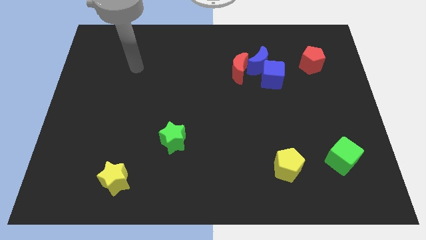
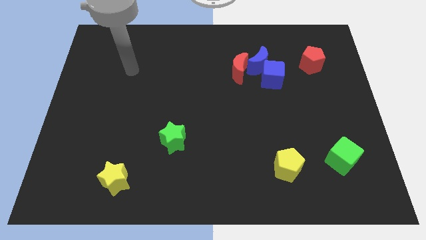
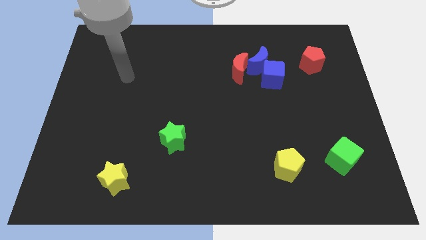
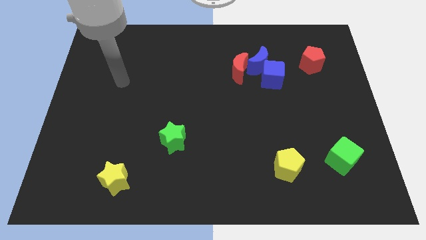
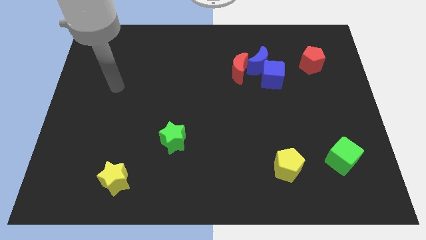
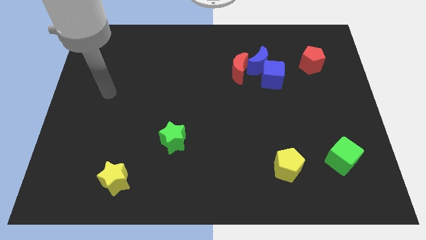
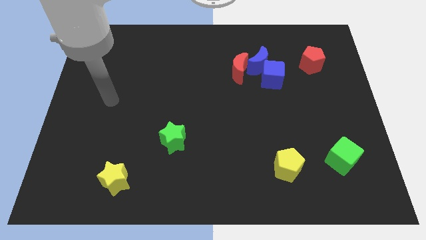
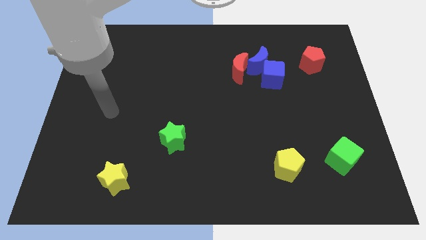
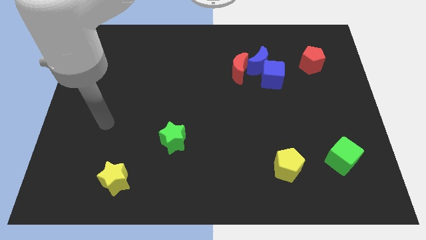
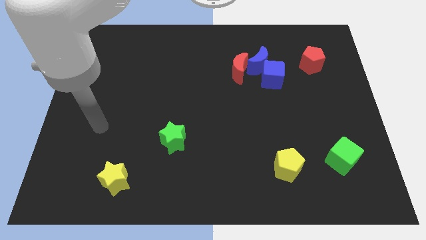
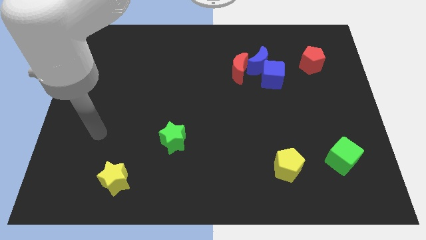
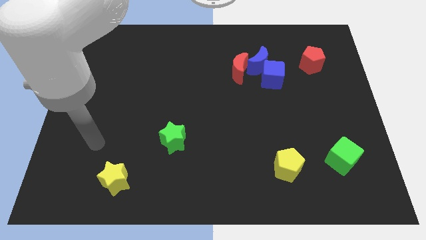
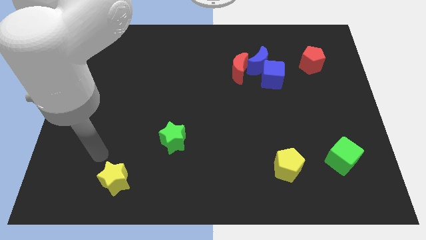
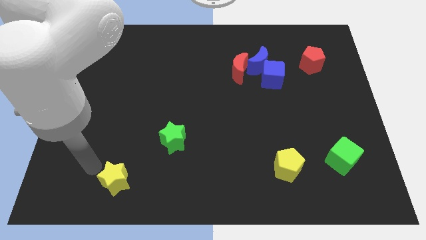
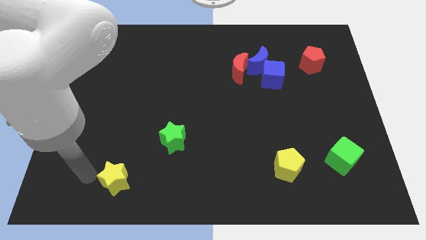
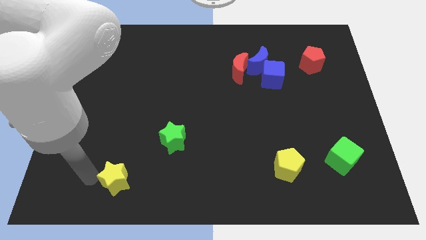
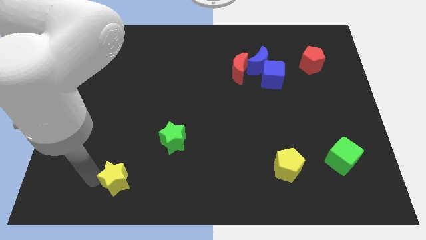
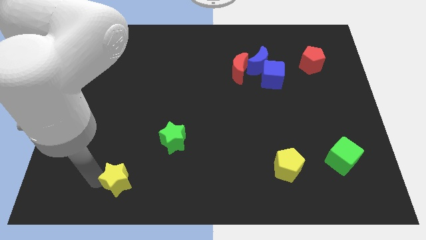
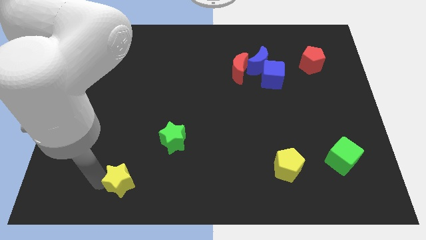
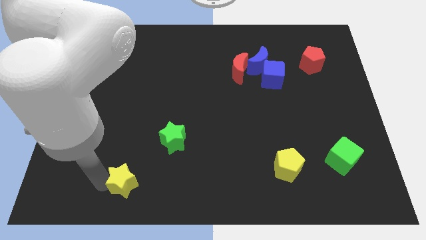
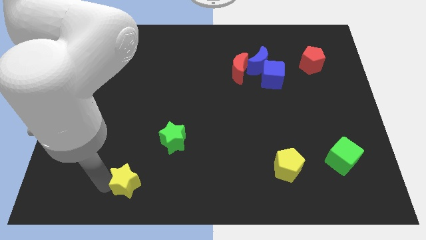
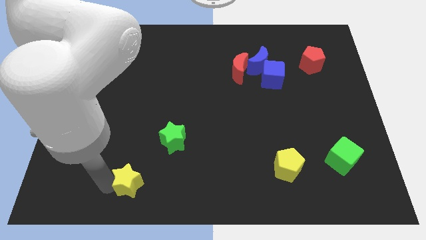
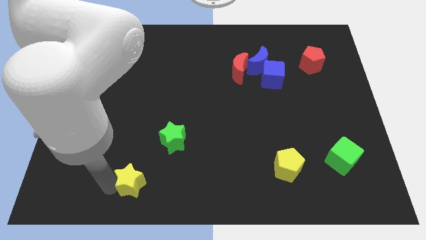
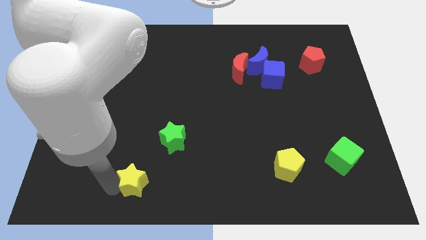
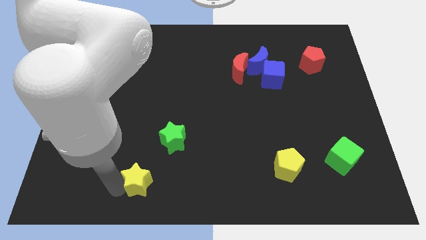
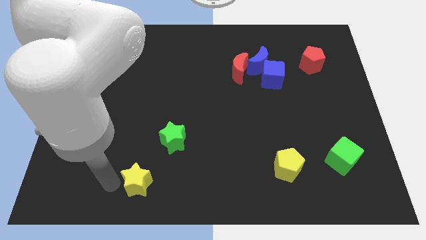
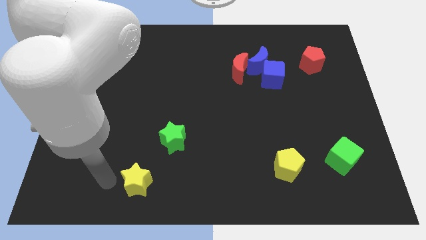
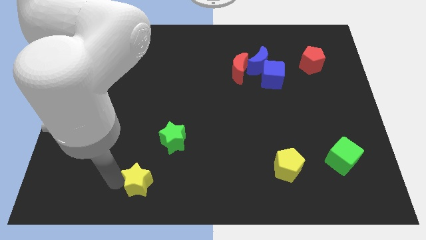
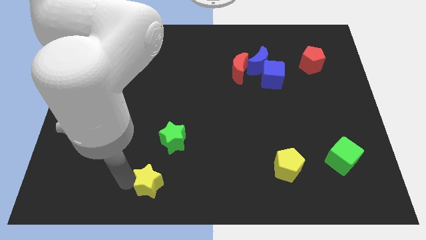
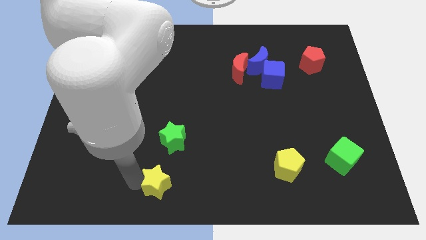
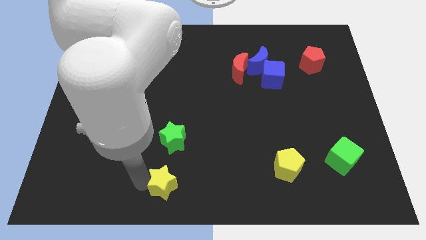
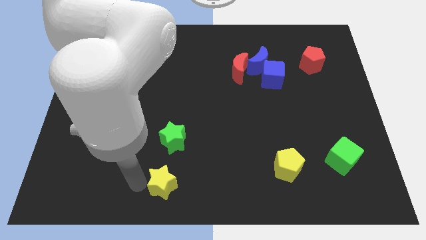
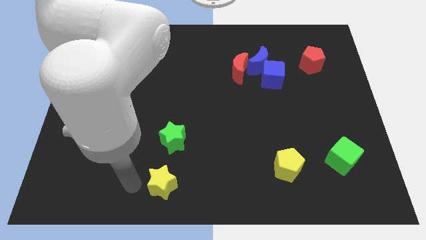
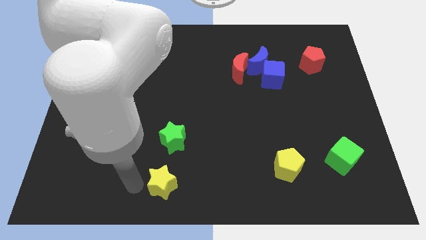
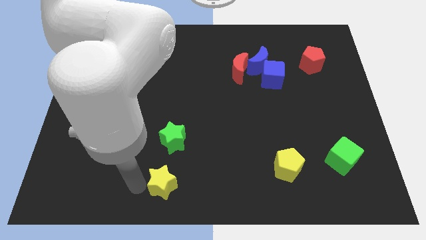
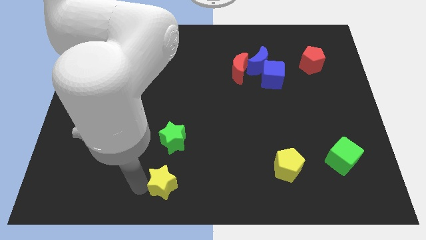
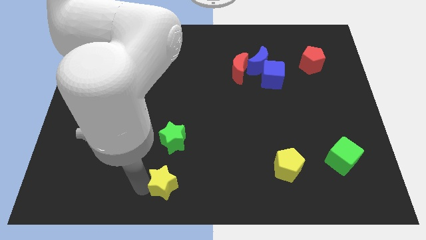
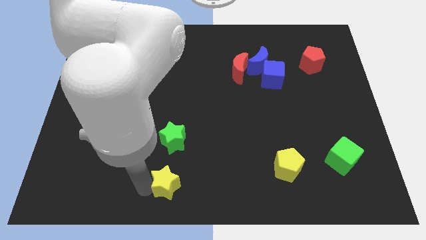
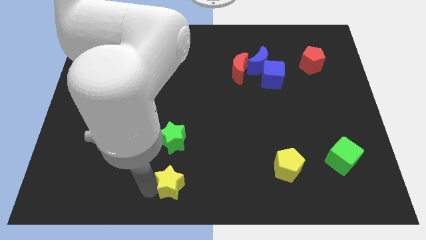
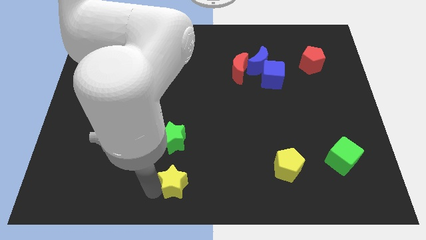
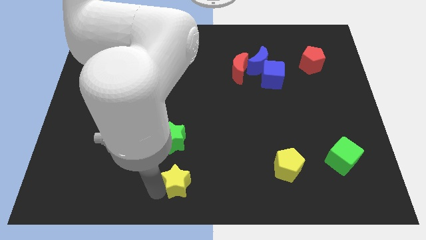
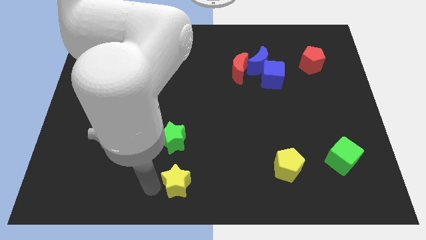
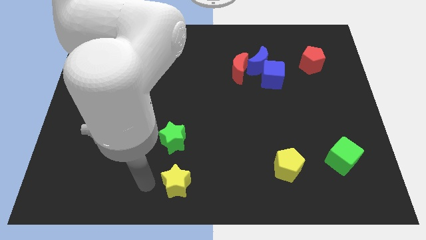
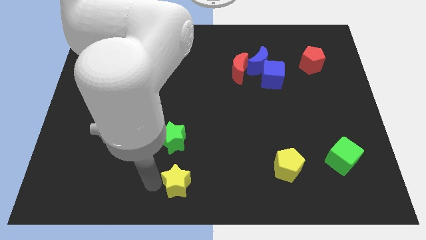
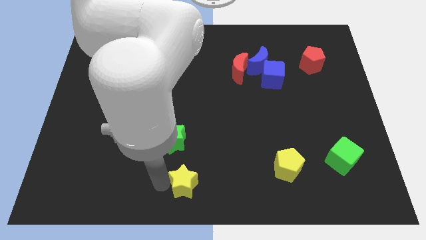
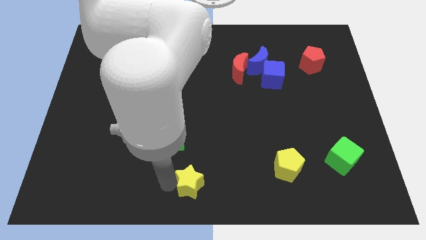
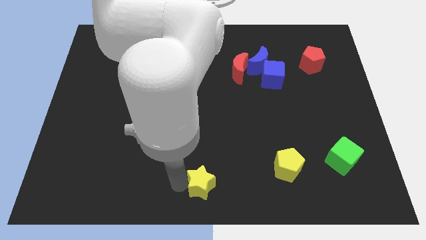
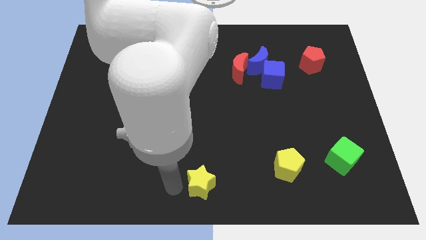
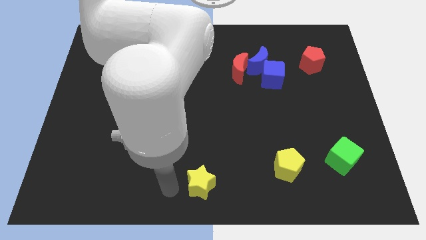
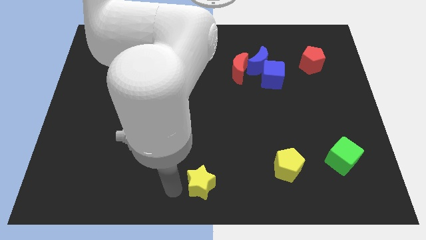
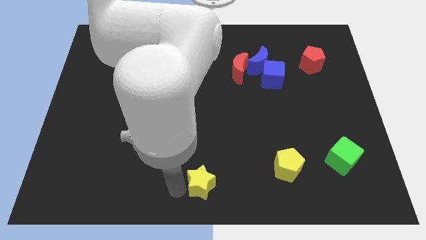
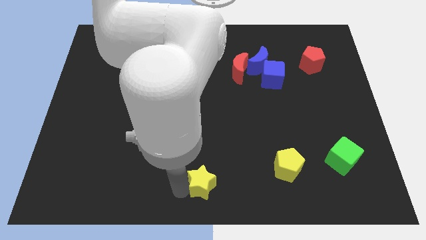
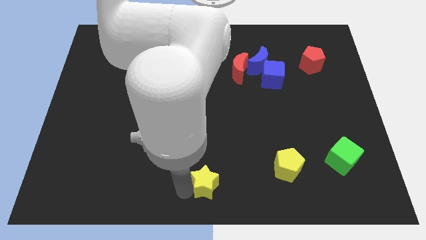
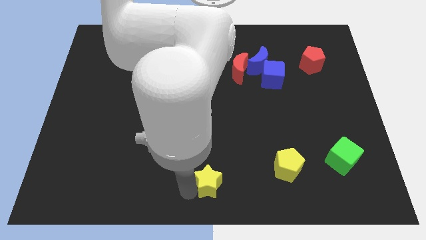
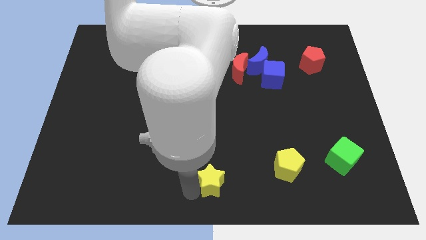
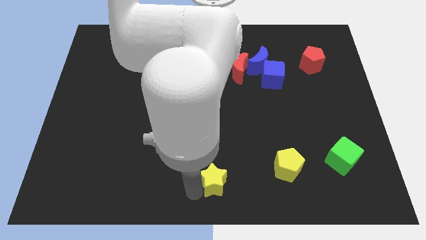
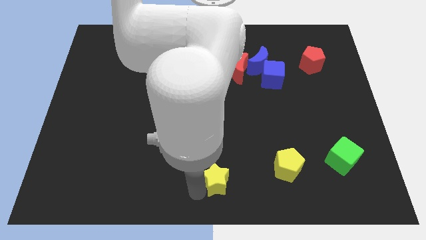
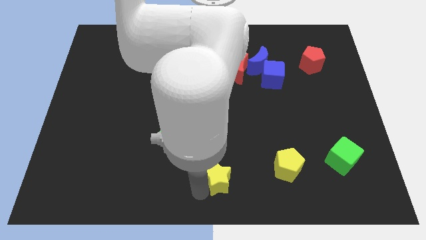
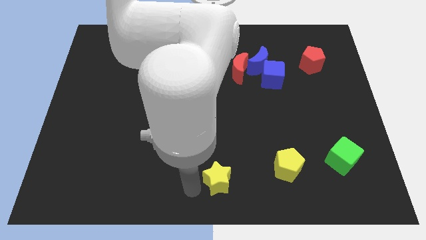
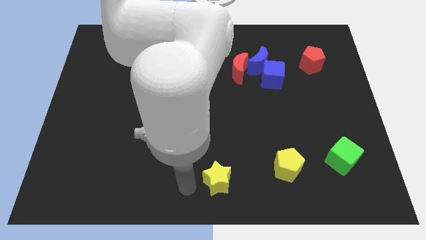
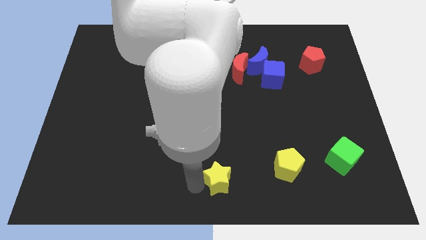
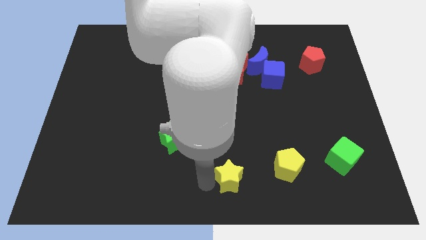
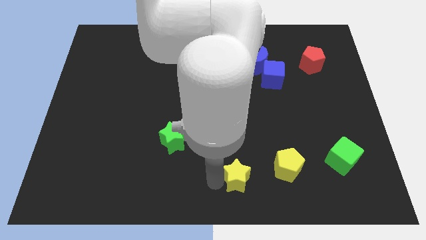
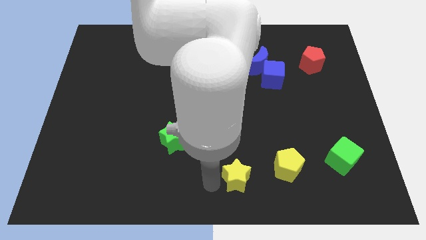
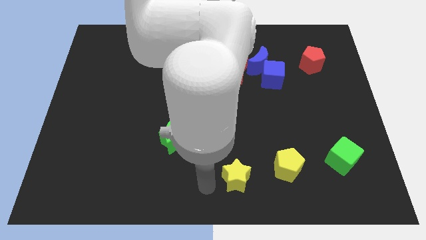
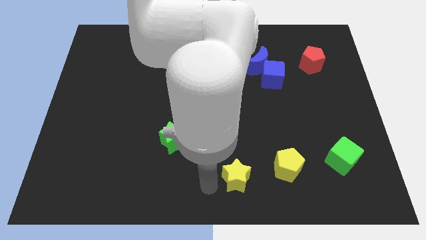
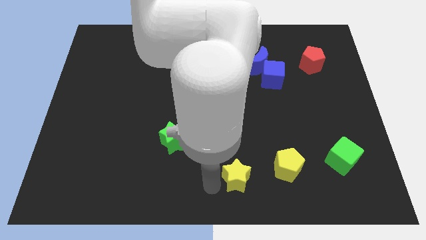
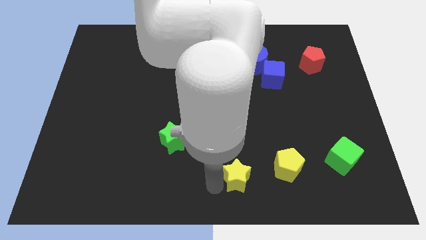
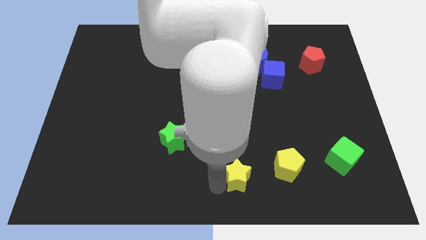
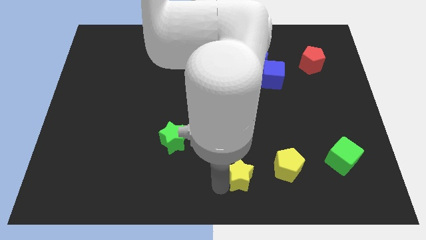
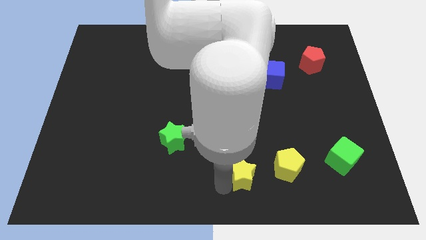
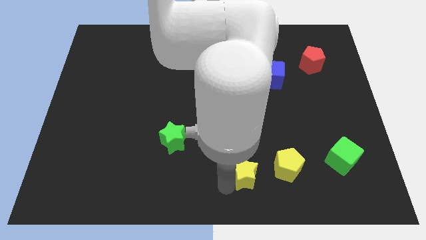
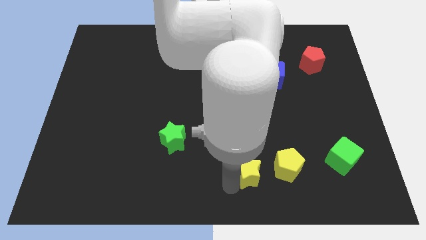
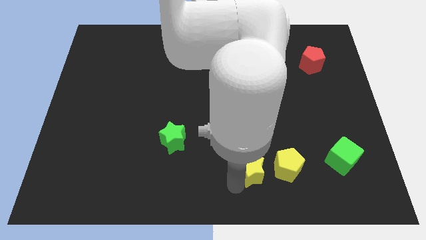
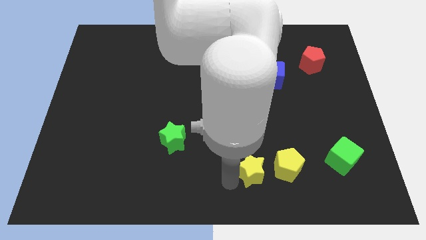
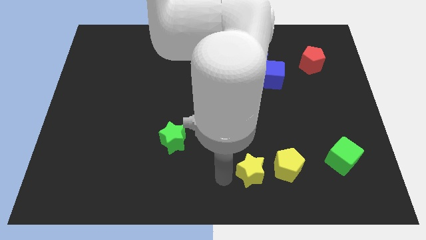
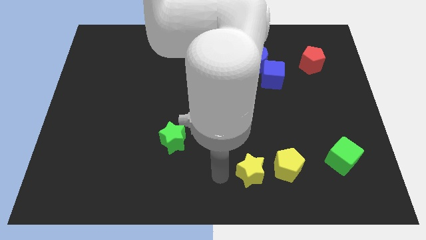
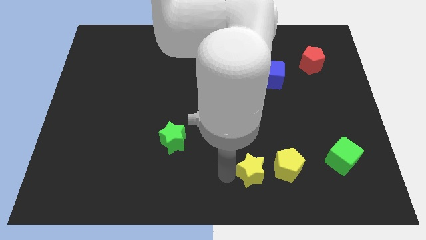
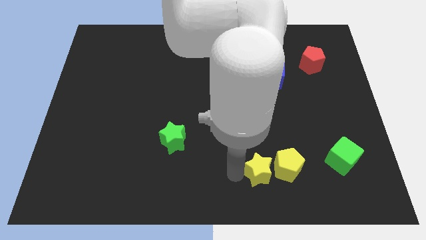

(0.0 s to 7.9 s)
put the yellow star next to the yellow pentagon
